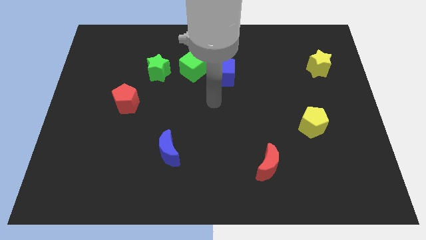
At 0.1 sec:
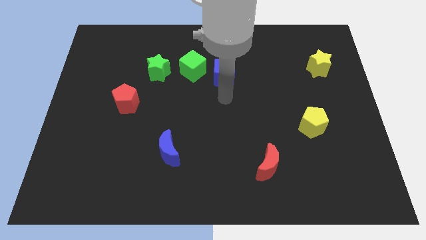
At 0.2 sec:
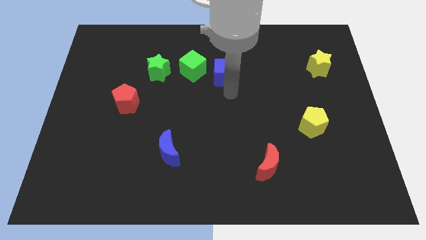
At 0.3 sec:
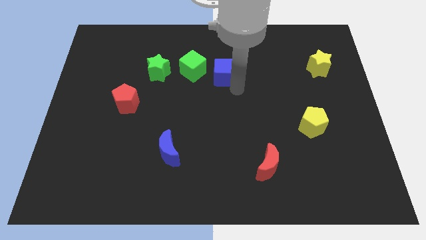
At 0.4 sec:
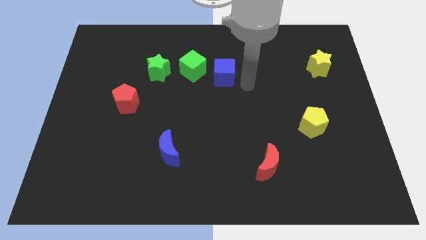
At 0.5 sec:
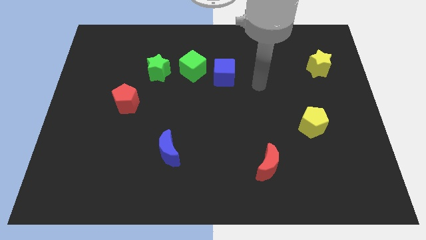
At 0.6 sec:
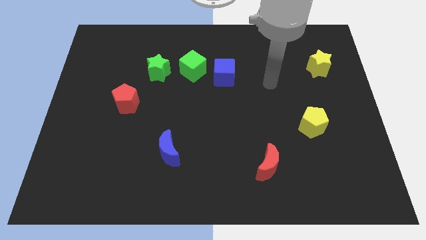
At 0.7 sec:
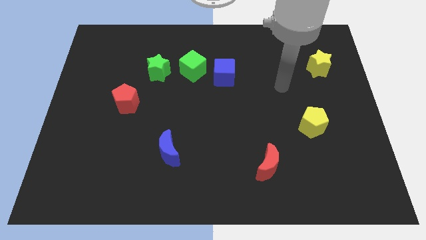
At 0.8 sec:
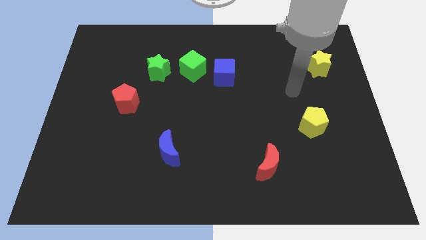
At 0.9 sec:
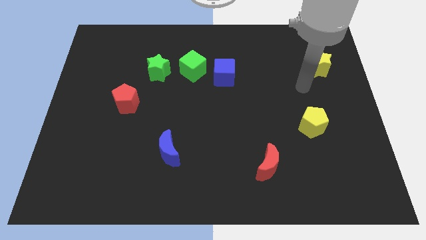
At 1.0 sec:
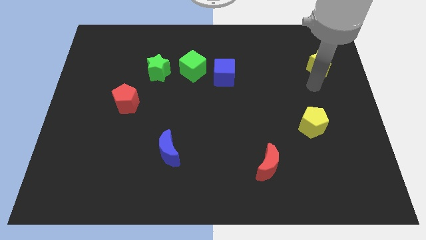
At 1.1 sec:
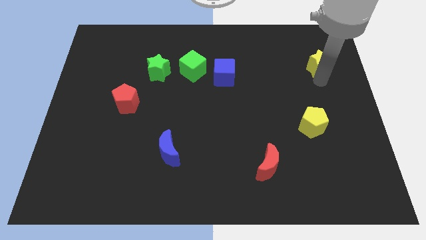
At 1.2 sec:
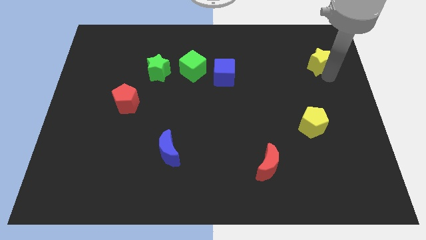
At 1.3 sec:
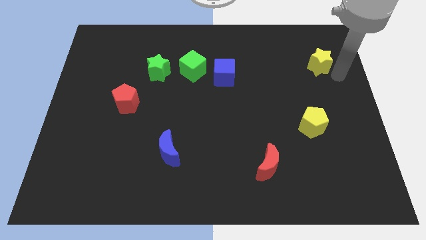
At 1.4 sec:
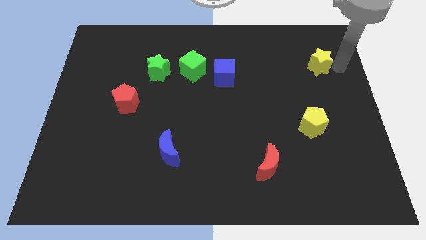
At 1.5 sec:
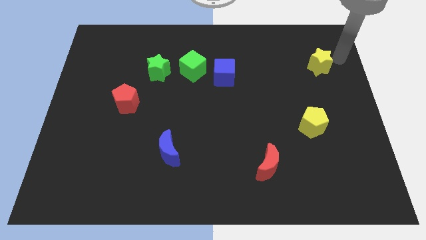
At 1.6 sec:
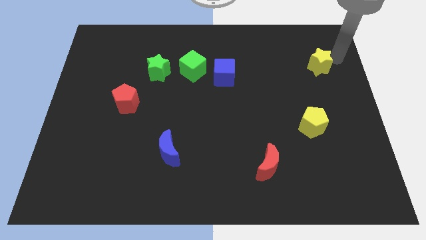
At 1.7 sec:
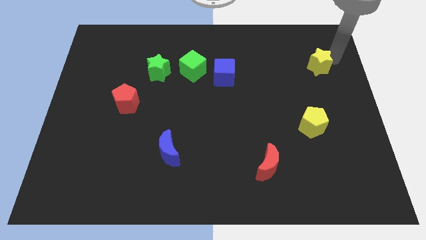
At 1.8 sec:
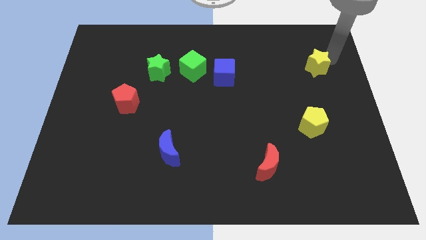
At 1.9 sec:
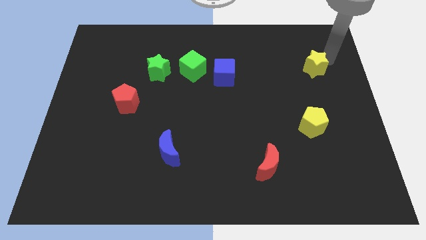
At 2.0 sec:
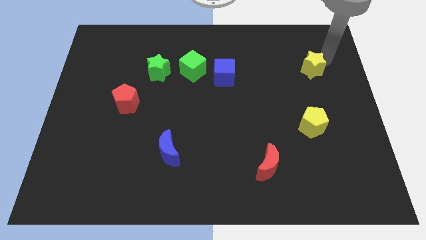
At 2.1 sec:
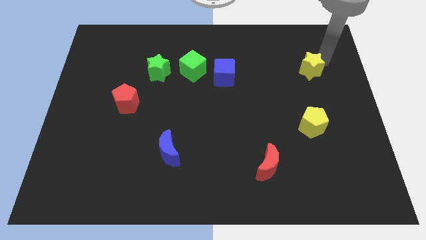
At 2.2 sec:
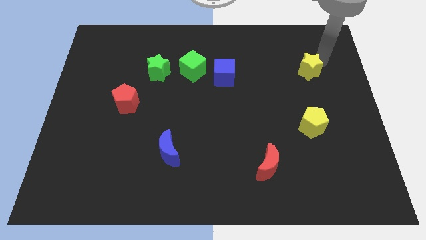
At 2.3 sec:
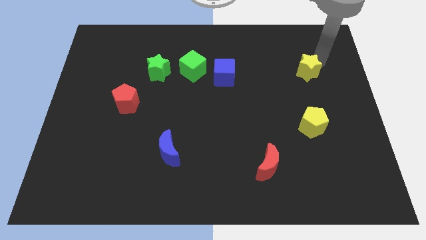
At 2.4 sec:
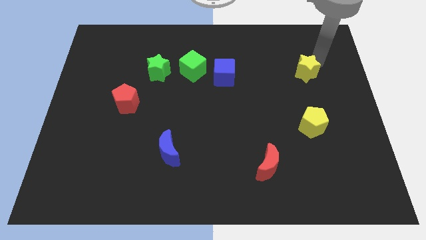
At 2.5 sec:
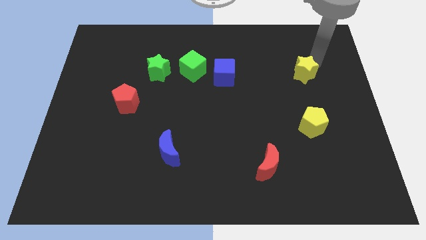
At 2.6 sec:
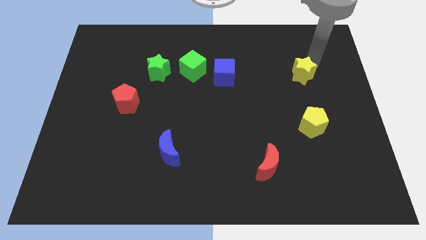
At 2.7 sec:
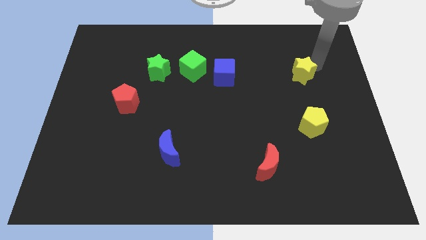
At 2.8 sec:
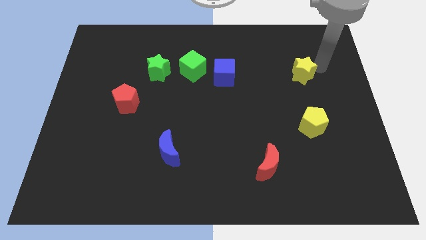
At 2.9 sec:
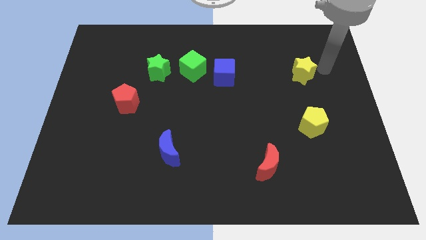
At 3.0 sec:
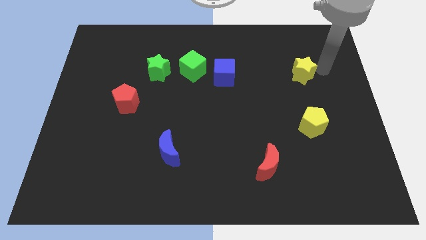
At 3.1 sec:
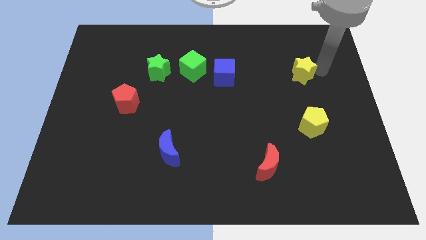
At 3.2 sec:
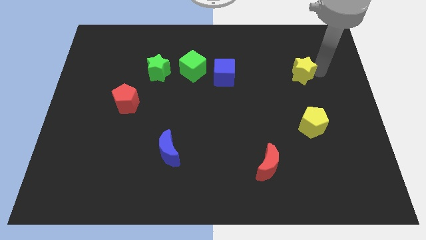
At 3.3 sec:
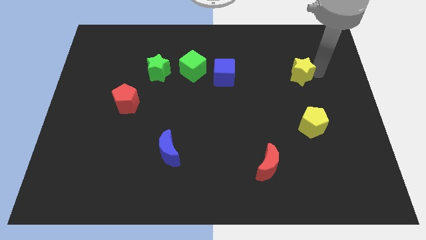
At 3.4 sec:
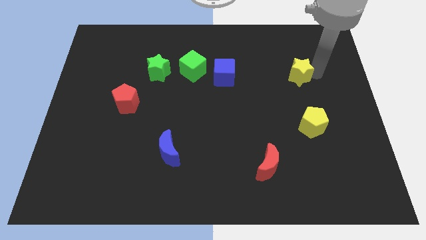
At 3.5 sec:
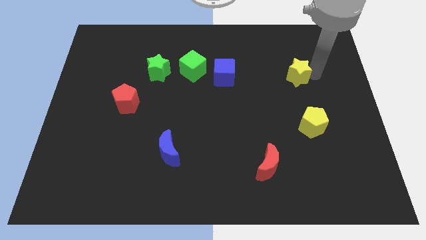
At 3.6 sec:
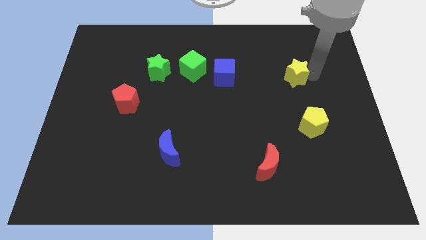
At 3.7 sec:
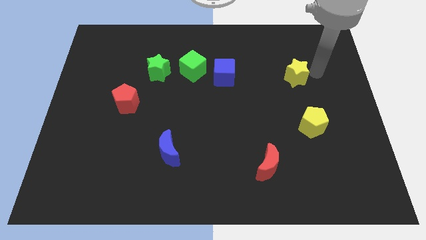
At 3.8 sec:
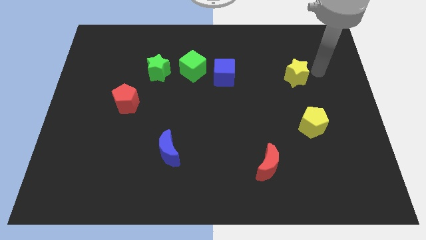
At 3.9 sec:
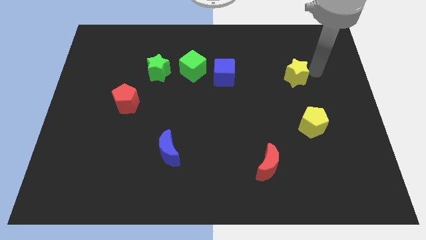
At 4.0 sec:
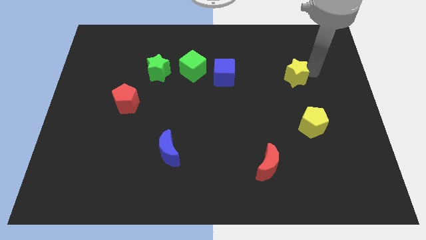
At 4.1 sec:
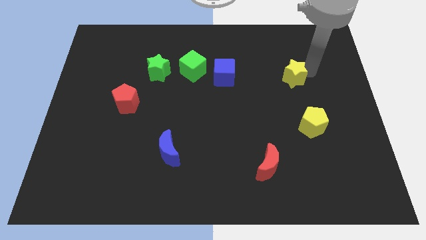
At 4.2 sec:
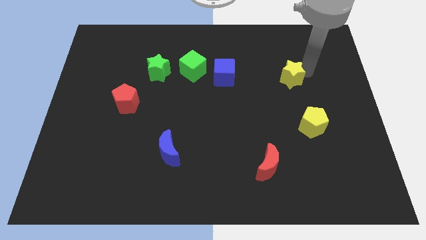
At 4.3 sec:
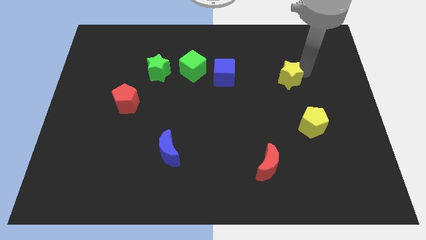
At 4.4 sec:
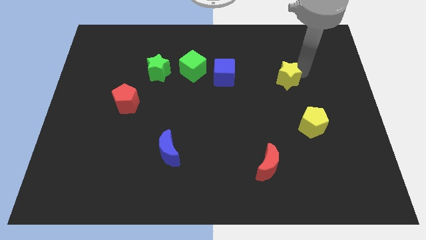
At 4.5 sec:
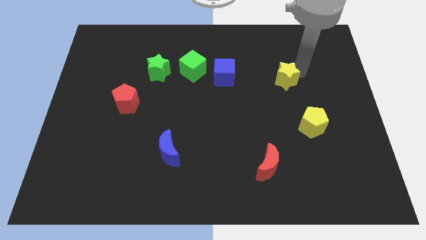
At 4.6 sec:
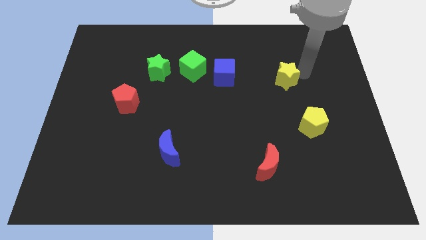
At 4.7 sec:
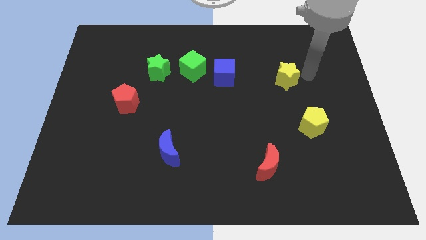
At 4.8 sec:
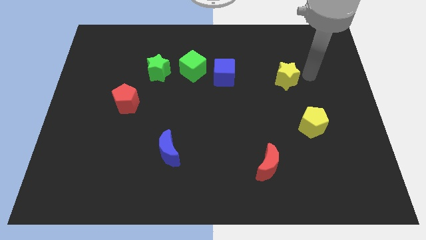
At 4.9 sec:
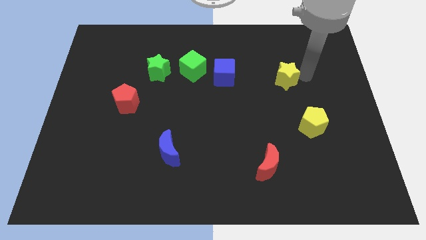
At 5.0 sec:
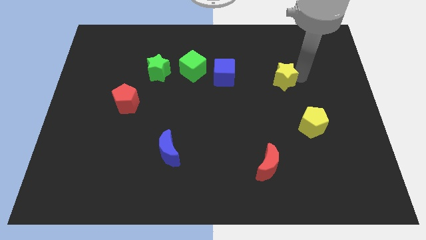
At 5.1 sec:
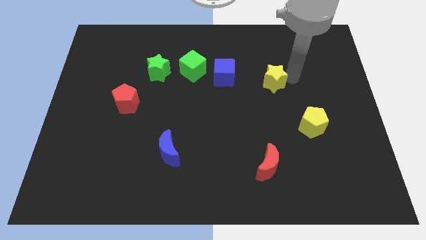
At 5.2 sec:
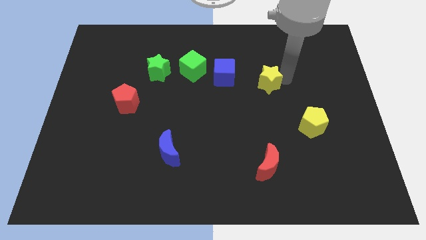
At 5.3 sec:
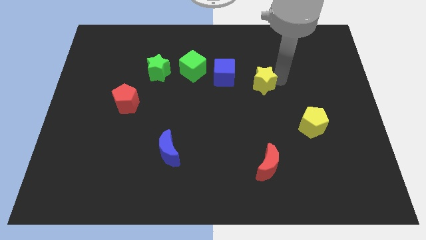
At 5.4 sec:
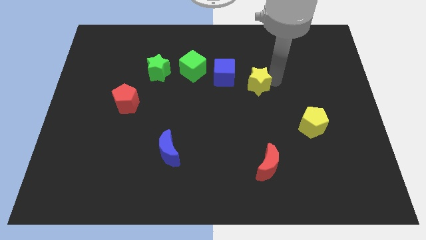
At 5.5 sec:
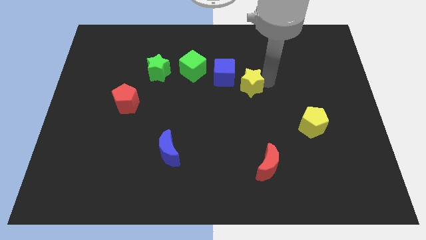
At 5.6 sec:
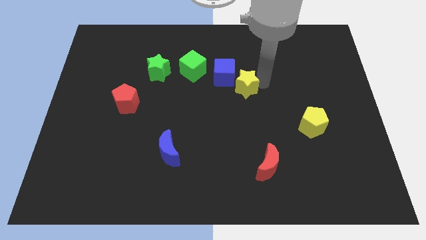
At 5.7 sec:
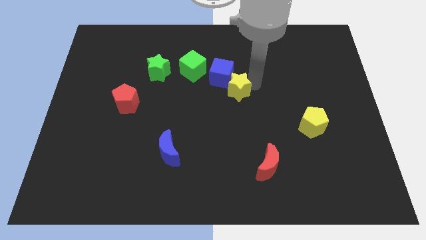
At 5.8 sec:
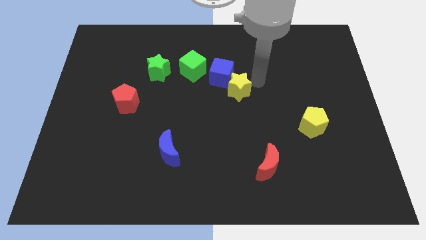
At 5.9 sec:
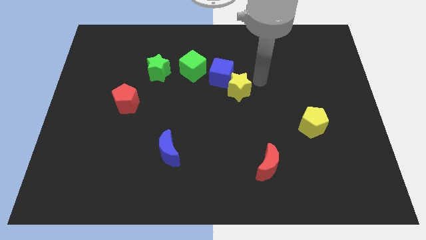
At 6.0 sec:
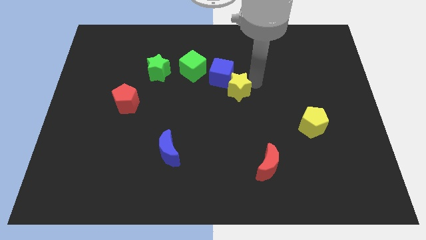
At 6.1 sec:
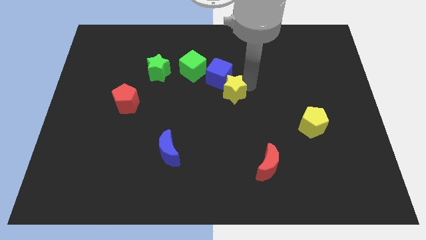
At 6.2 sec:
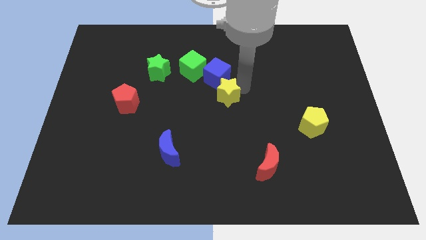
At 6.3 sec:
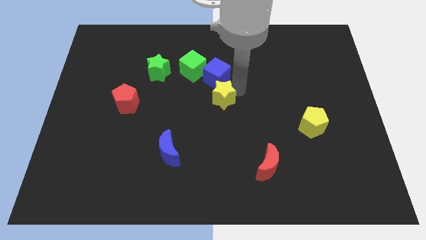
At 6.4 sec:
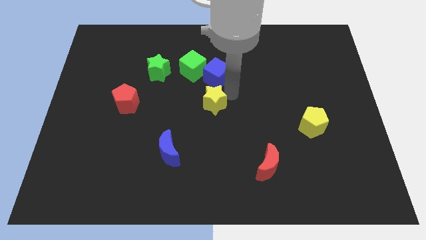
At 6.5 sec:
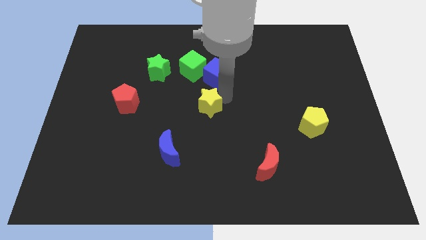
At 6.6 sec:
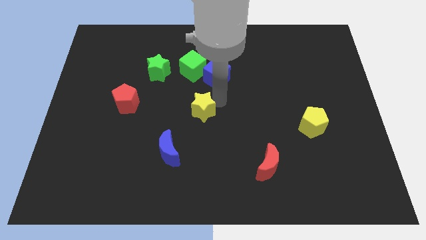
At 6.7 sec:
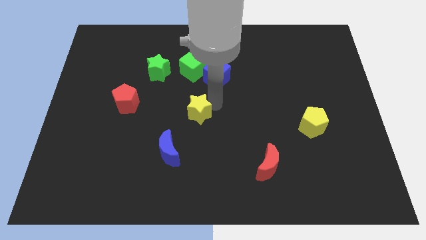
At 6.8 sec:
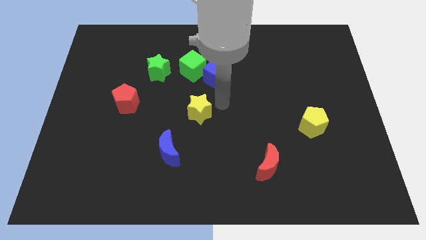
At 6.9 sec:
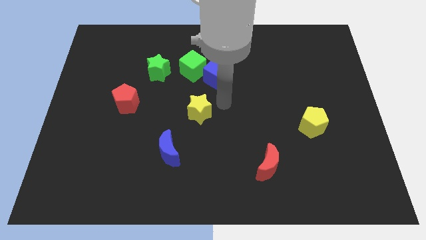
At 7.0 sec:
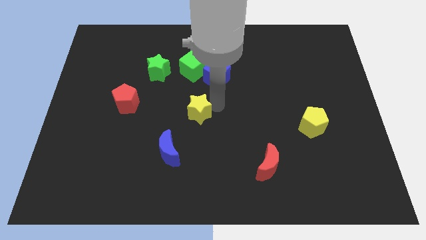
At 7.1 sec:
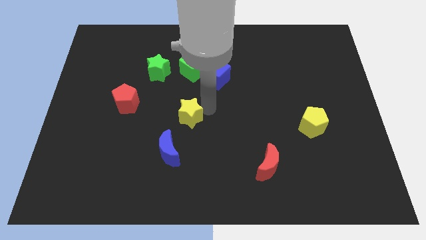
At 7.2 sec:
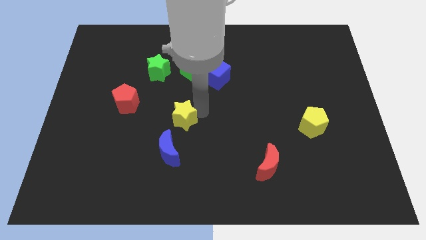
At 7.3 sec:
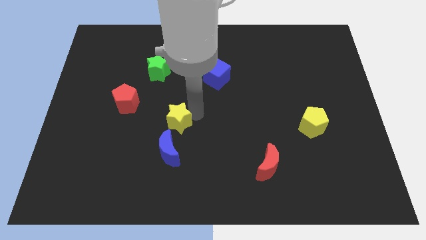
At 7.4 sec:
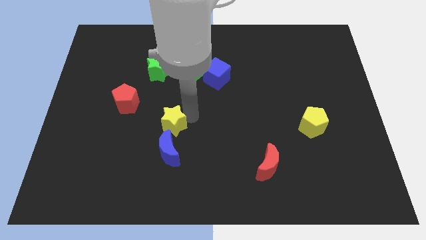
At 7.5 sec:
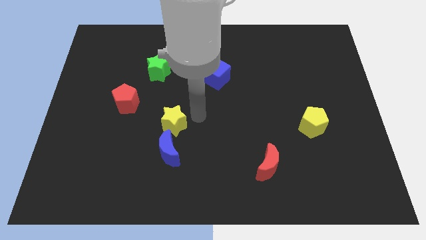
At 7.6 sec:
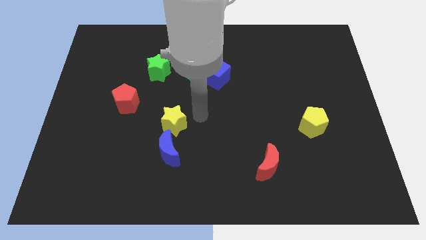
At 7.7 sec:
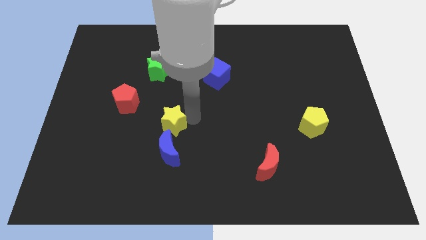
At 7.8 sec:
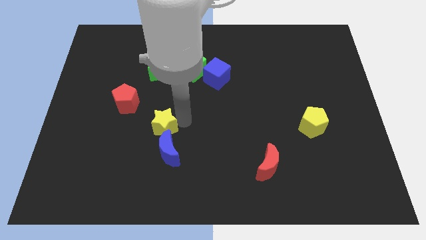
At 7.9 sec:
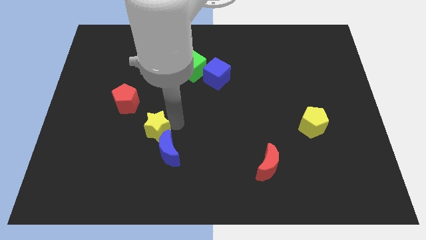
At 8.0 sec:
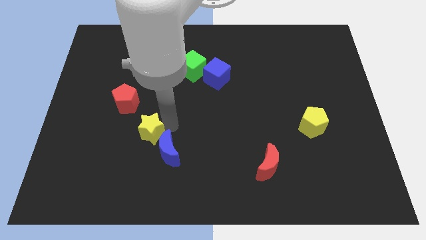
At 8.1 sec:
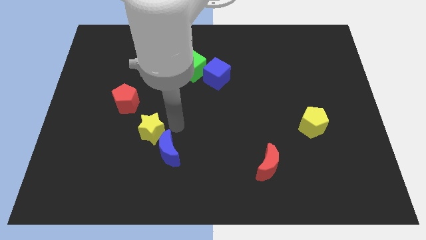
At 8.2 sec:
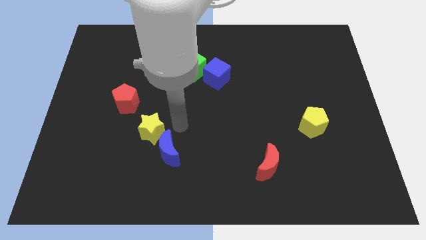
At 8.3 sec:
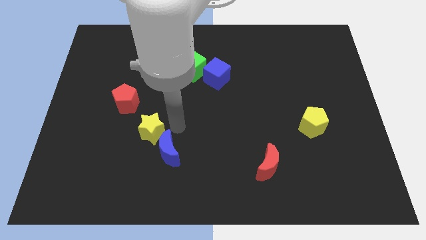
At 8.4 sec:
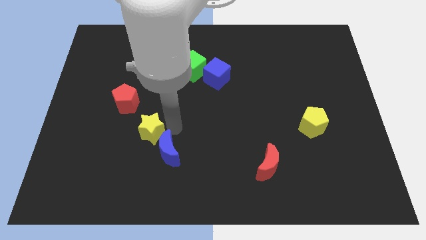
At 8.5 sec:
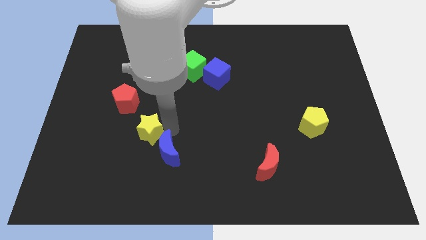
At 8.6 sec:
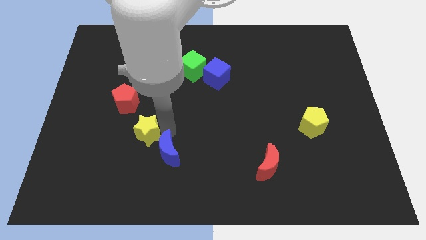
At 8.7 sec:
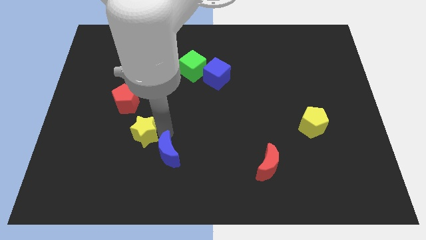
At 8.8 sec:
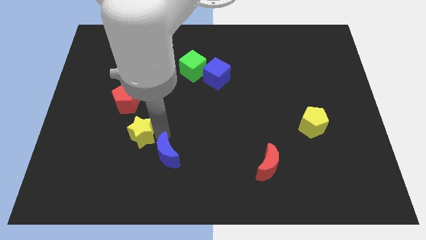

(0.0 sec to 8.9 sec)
put the yellow star below the red pentagon
